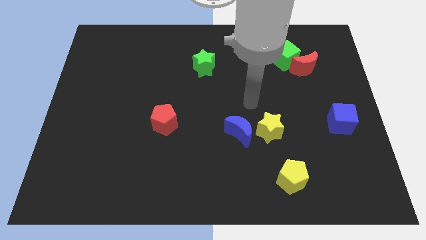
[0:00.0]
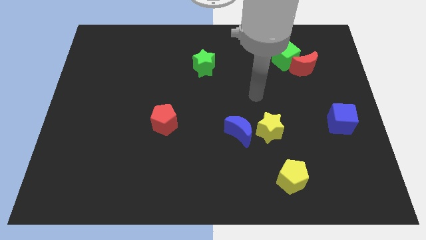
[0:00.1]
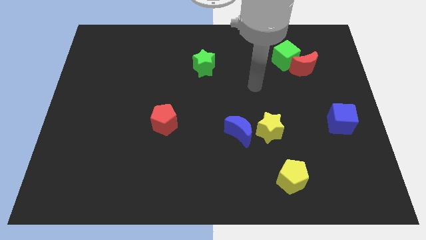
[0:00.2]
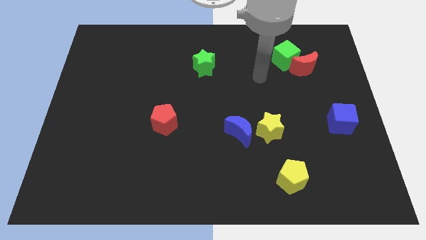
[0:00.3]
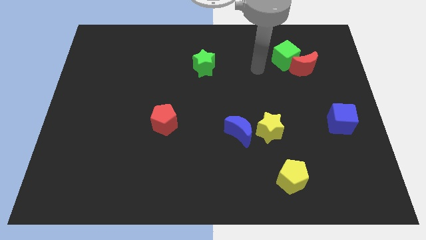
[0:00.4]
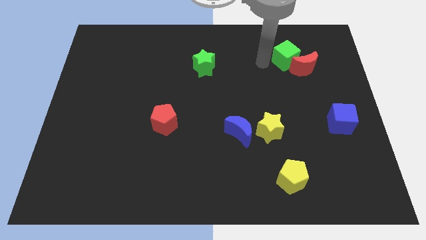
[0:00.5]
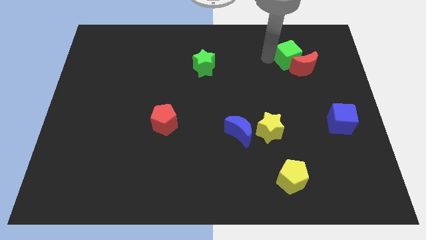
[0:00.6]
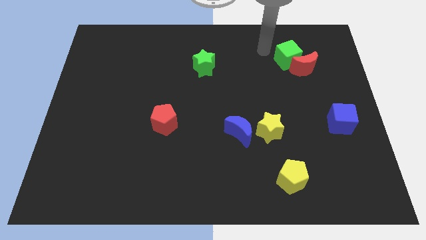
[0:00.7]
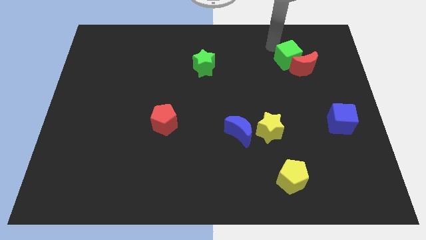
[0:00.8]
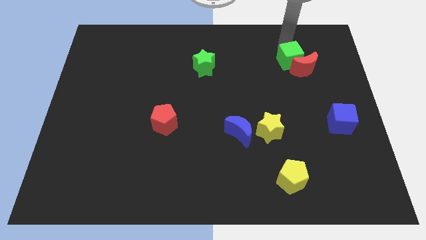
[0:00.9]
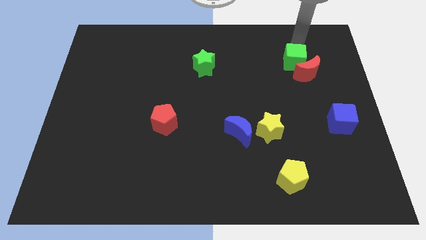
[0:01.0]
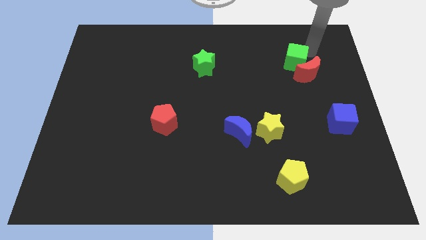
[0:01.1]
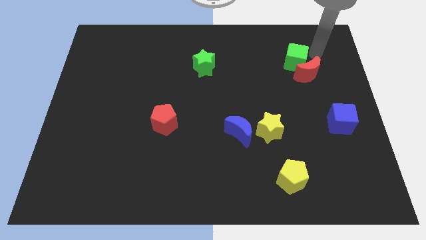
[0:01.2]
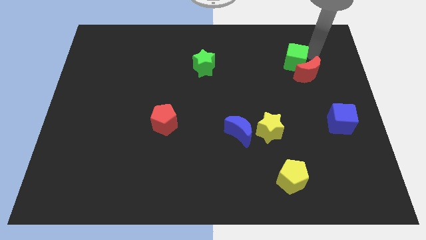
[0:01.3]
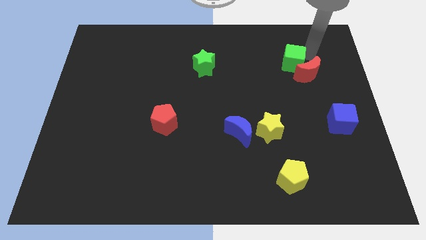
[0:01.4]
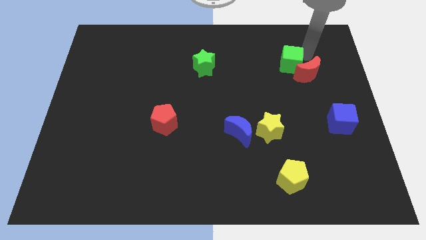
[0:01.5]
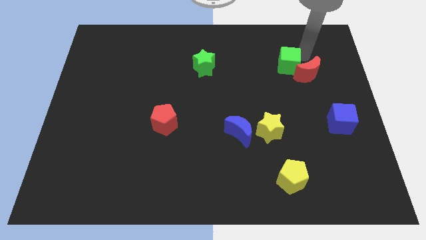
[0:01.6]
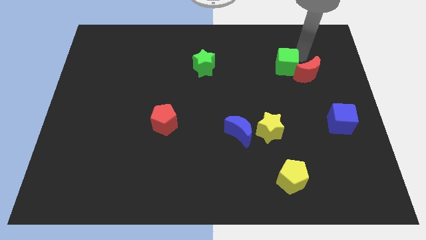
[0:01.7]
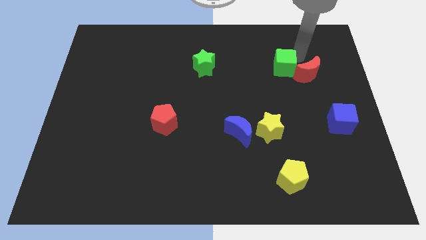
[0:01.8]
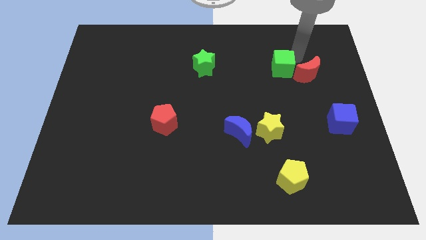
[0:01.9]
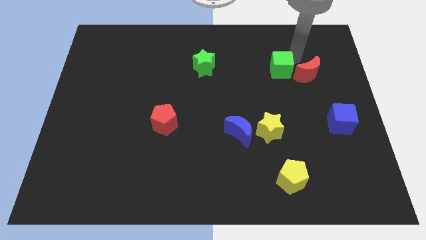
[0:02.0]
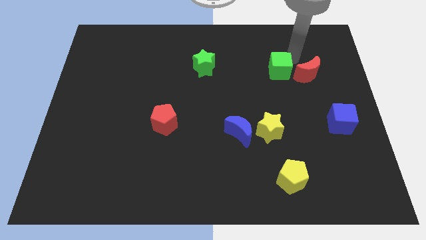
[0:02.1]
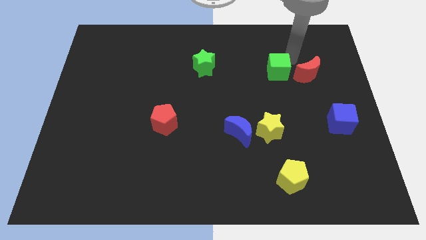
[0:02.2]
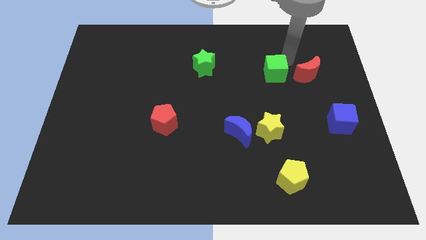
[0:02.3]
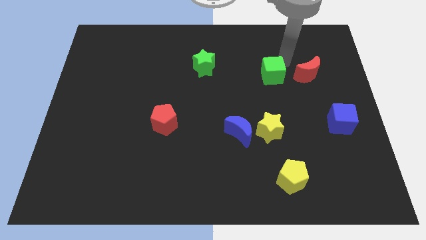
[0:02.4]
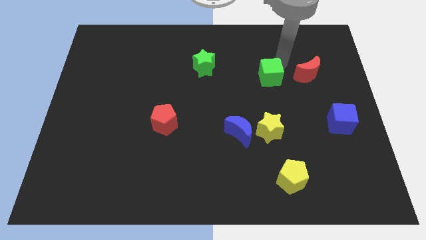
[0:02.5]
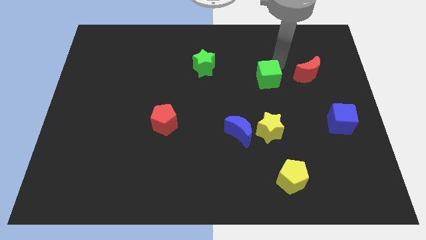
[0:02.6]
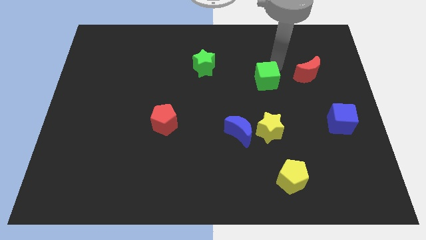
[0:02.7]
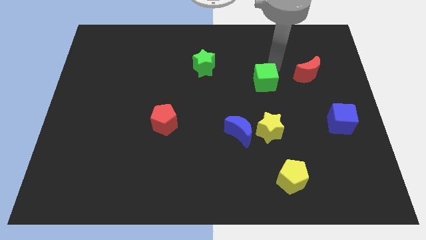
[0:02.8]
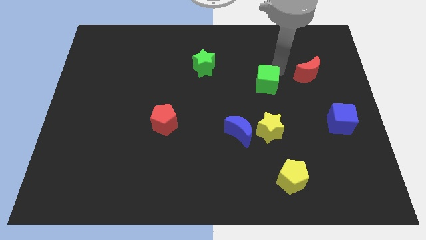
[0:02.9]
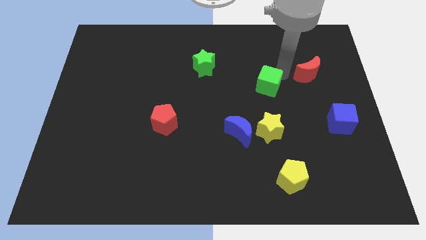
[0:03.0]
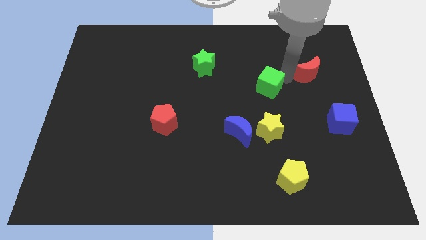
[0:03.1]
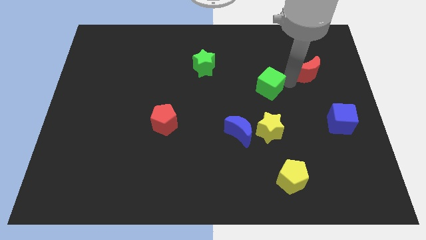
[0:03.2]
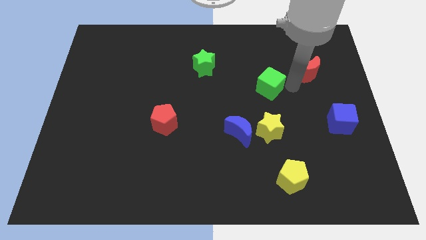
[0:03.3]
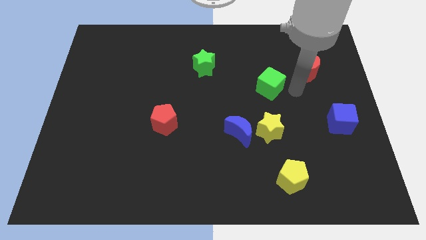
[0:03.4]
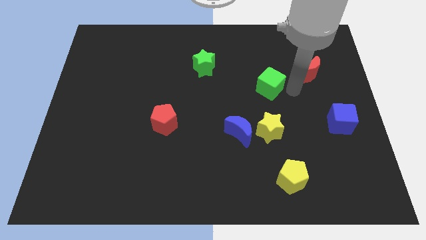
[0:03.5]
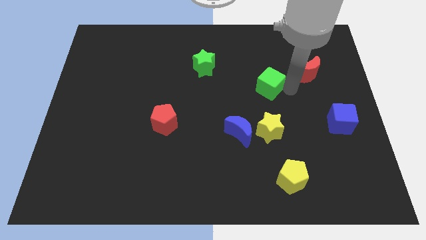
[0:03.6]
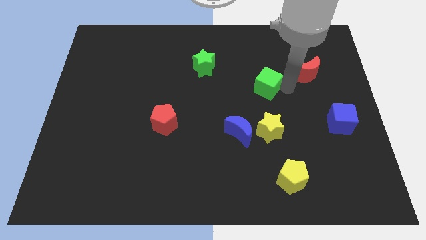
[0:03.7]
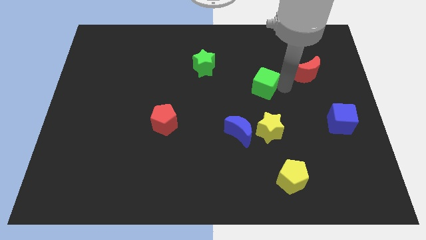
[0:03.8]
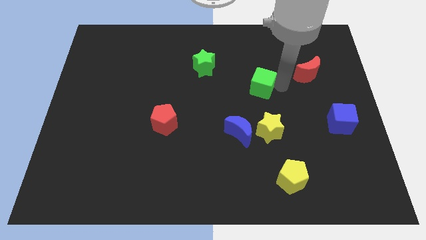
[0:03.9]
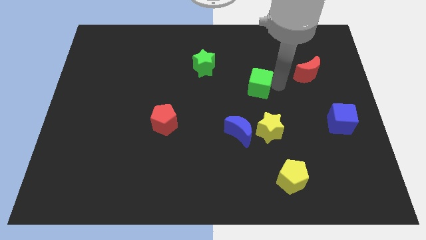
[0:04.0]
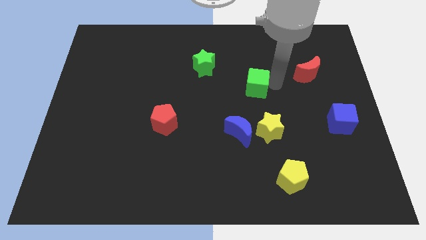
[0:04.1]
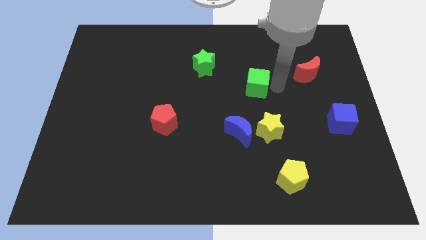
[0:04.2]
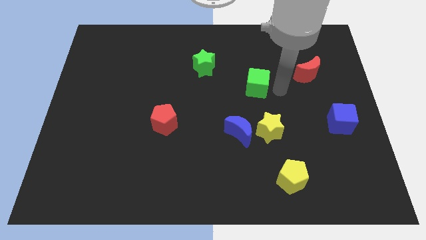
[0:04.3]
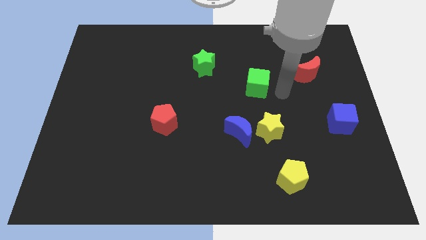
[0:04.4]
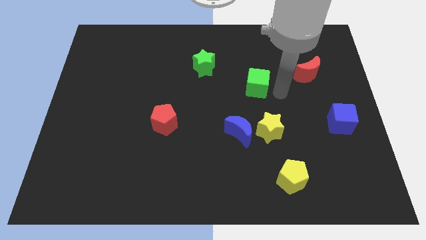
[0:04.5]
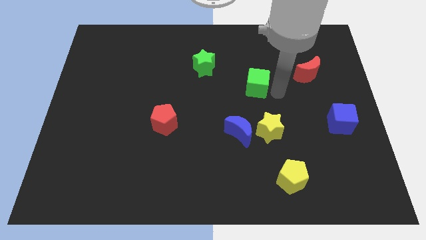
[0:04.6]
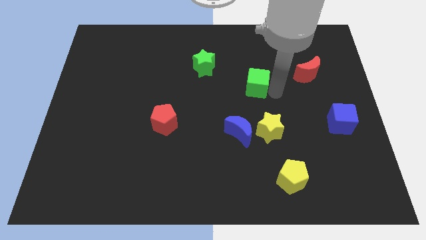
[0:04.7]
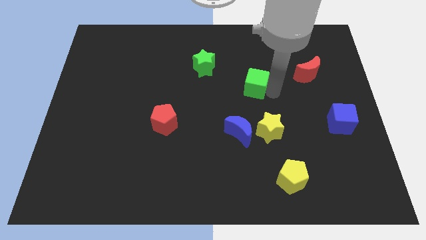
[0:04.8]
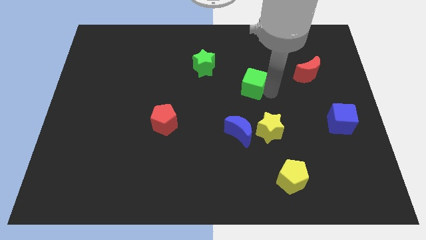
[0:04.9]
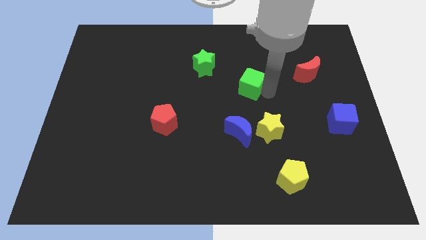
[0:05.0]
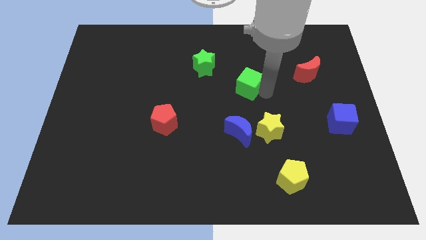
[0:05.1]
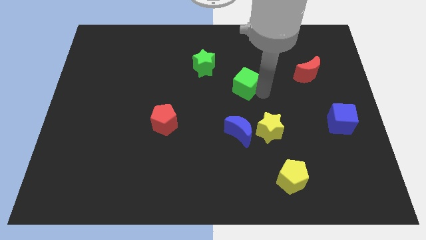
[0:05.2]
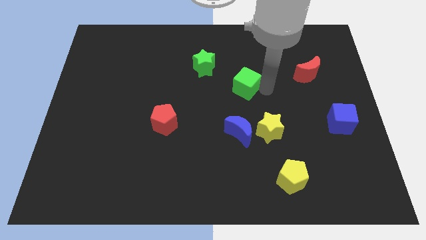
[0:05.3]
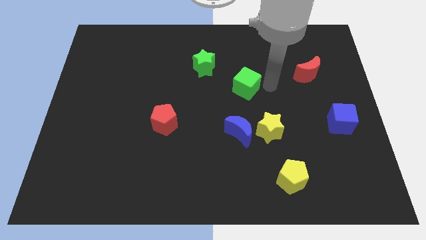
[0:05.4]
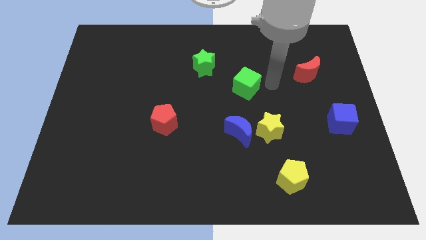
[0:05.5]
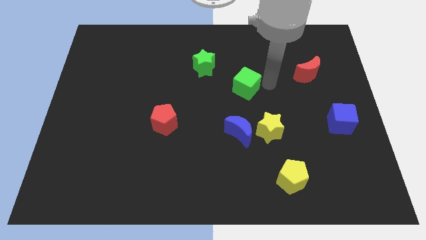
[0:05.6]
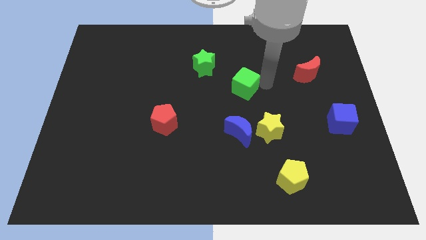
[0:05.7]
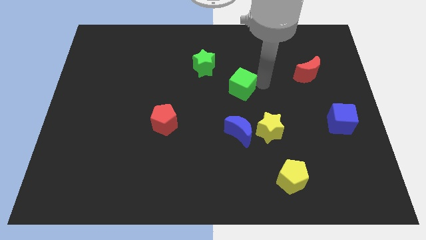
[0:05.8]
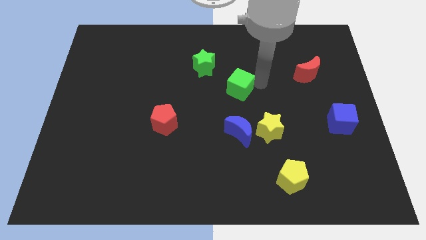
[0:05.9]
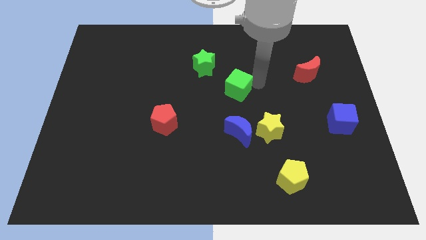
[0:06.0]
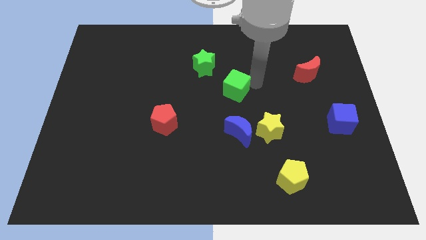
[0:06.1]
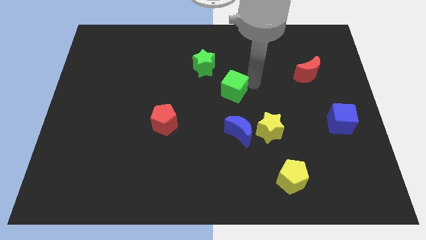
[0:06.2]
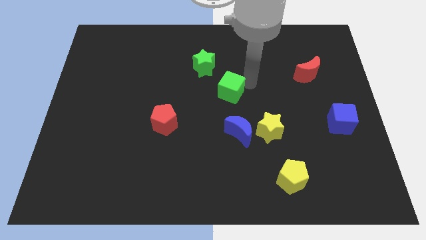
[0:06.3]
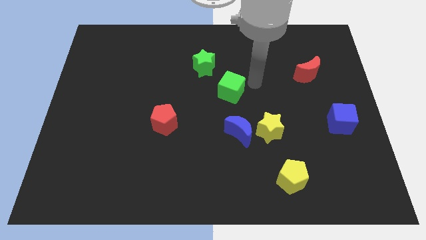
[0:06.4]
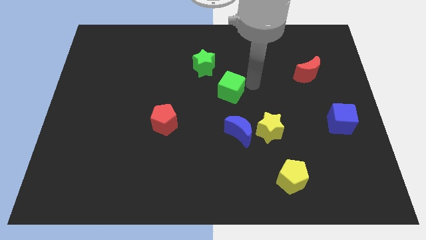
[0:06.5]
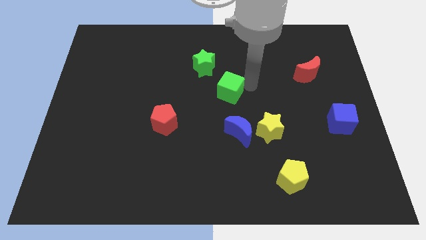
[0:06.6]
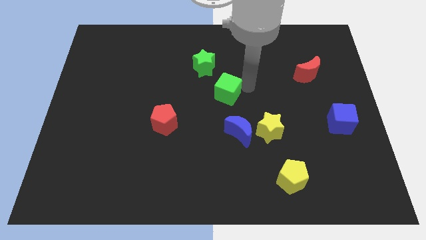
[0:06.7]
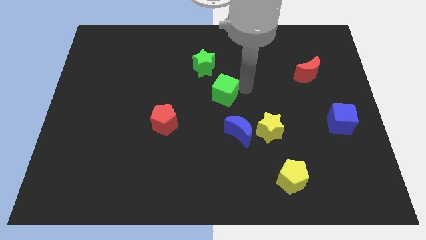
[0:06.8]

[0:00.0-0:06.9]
slide the green cube below the green star

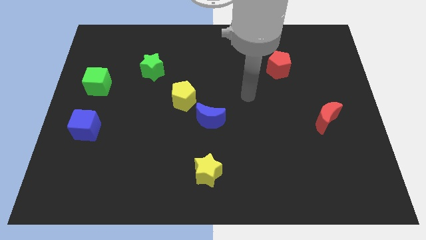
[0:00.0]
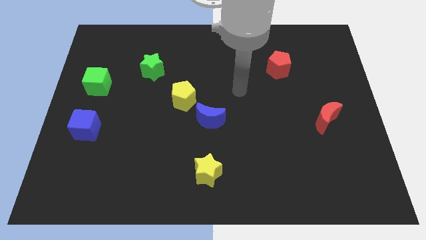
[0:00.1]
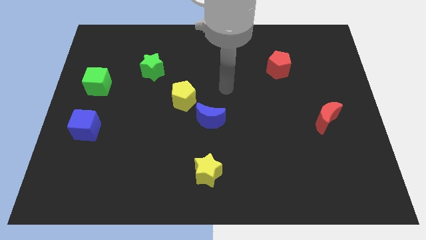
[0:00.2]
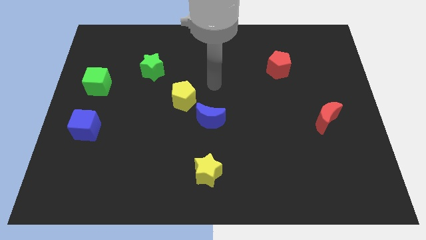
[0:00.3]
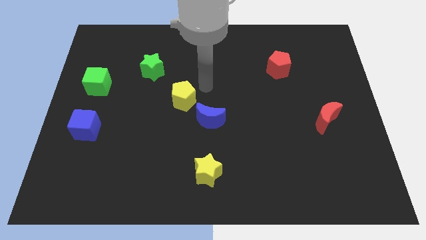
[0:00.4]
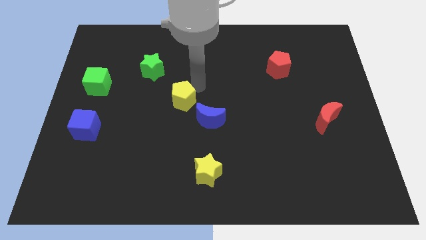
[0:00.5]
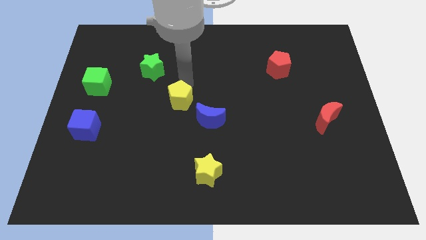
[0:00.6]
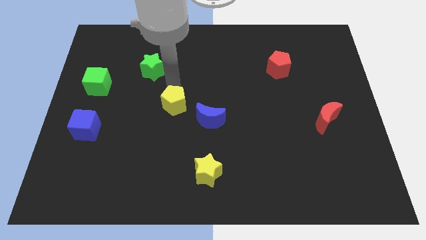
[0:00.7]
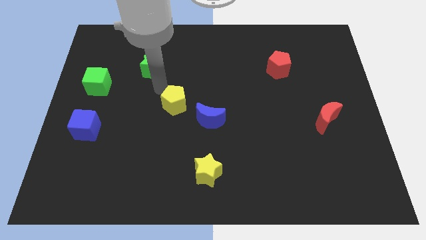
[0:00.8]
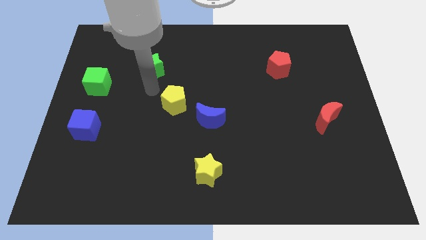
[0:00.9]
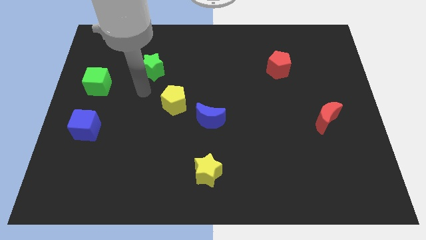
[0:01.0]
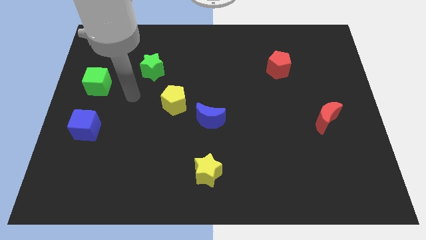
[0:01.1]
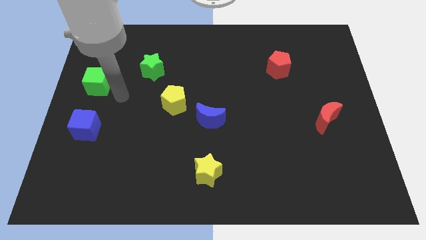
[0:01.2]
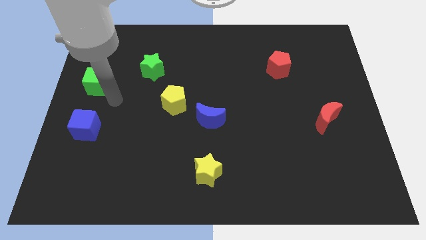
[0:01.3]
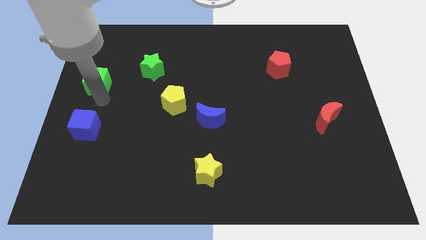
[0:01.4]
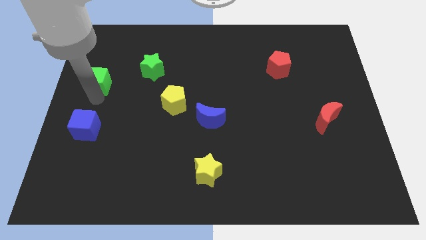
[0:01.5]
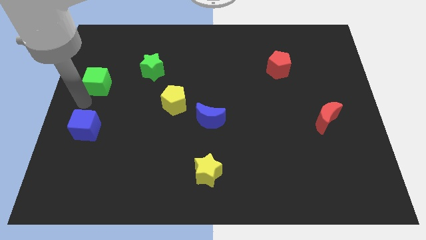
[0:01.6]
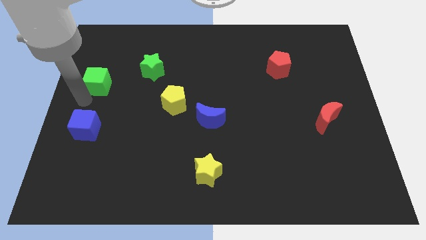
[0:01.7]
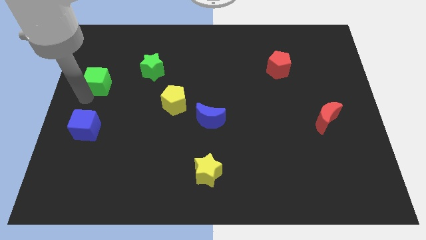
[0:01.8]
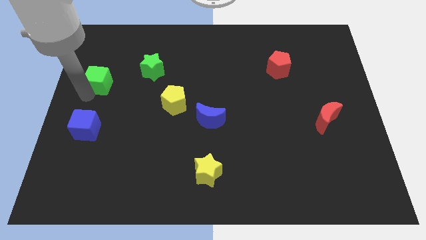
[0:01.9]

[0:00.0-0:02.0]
move the green cube left of the green star
